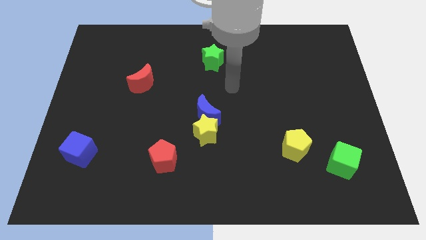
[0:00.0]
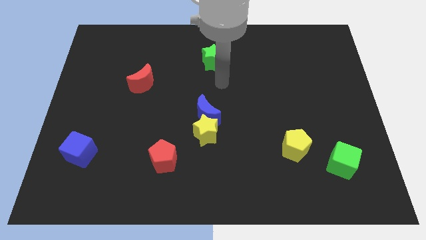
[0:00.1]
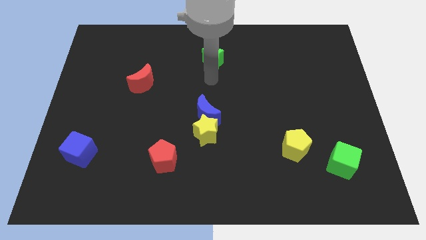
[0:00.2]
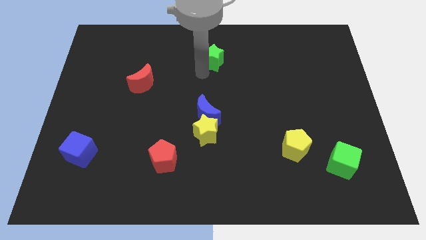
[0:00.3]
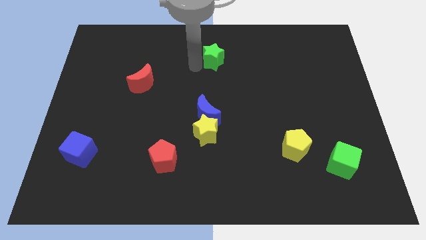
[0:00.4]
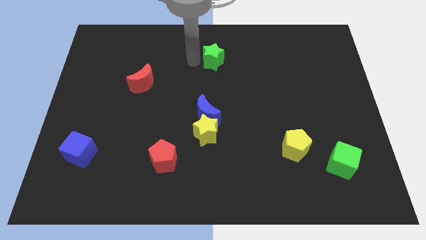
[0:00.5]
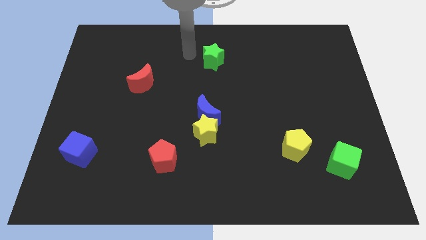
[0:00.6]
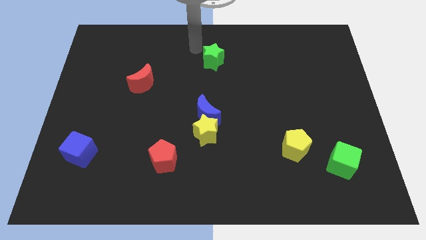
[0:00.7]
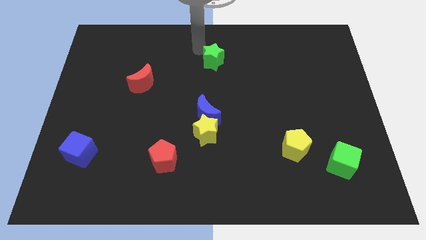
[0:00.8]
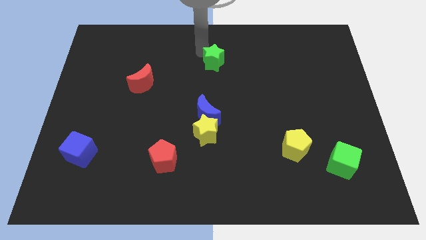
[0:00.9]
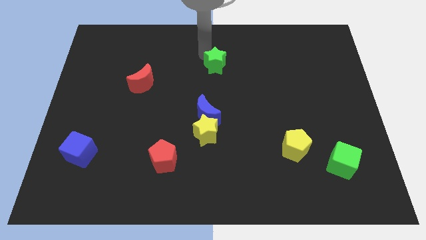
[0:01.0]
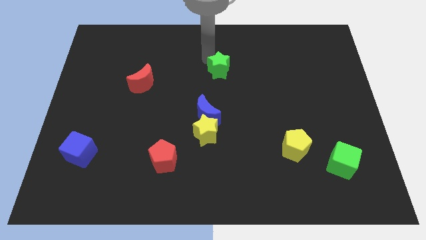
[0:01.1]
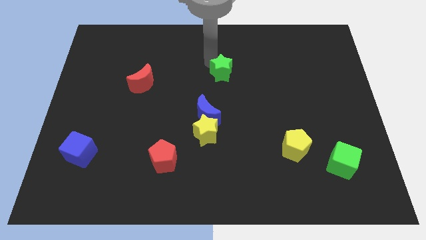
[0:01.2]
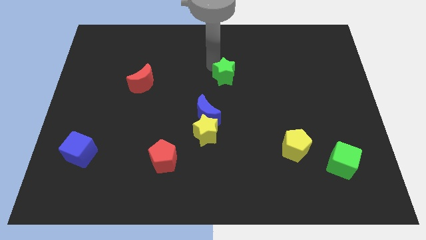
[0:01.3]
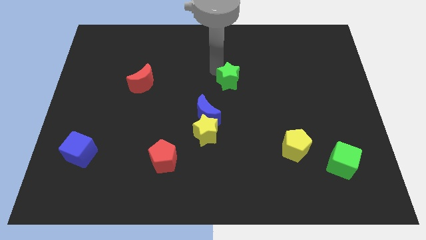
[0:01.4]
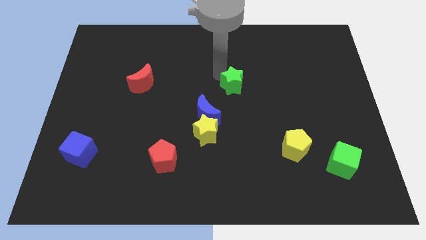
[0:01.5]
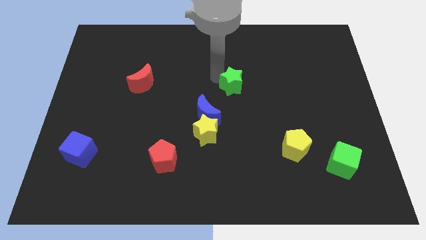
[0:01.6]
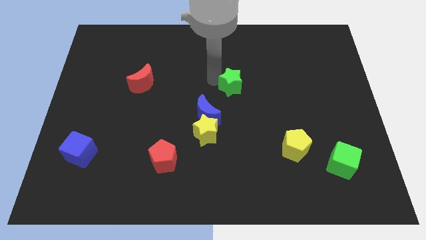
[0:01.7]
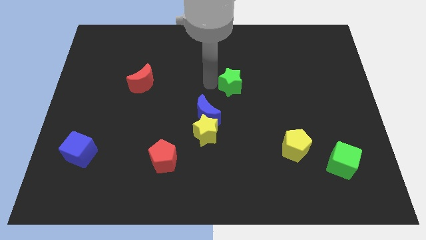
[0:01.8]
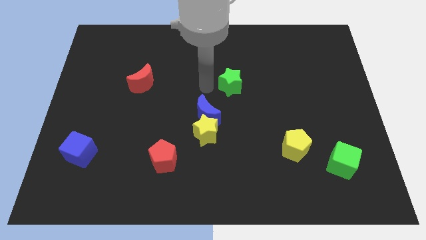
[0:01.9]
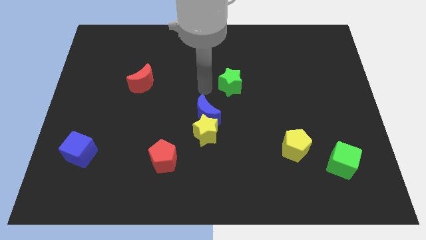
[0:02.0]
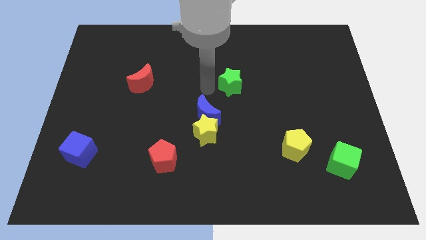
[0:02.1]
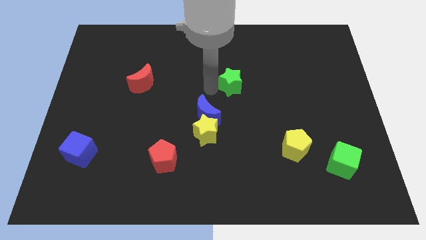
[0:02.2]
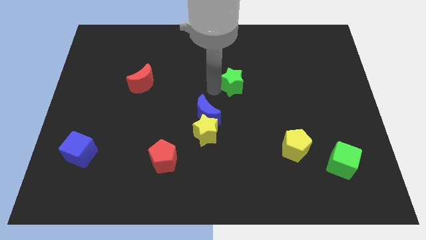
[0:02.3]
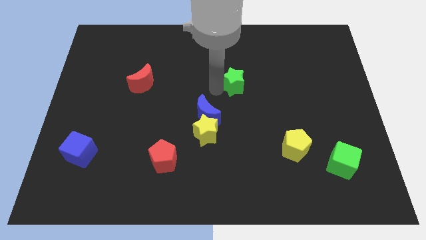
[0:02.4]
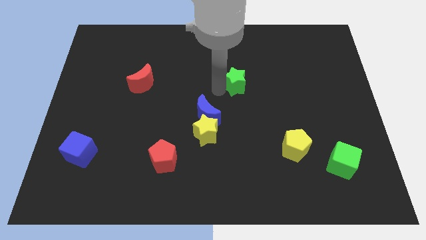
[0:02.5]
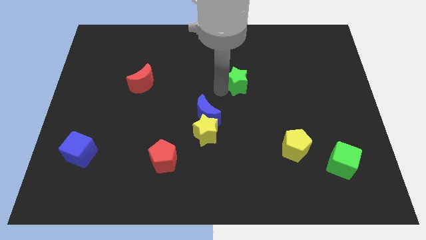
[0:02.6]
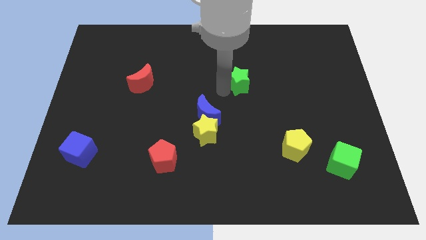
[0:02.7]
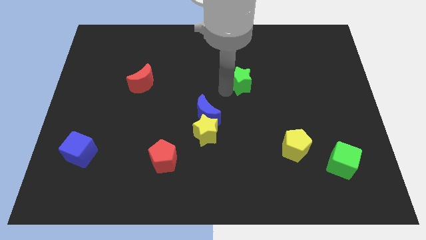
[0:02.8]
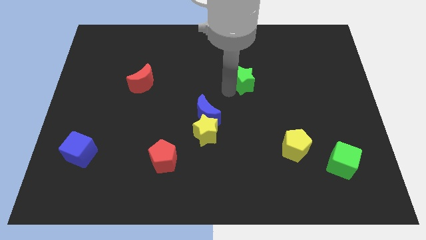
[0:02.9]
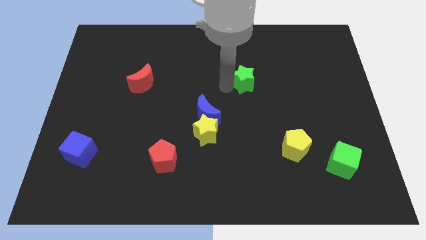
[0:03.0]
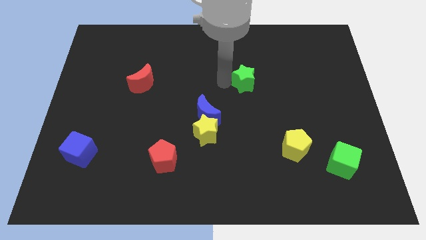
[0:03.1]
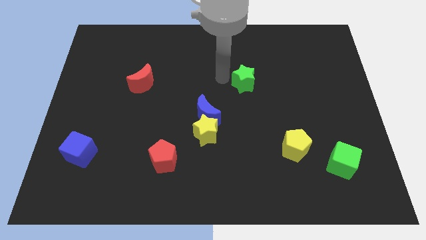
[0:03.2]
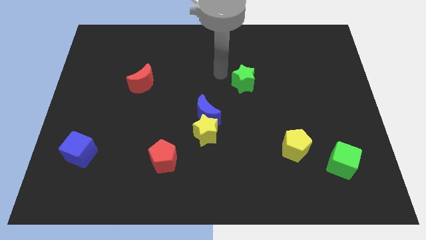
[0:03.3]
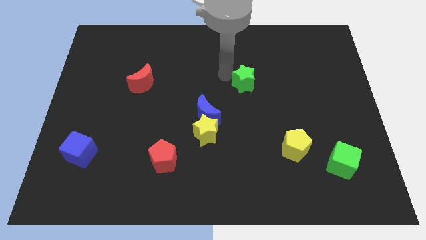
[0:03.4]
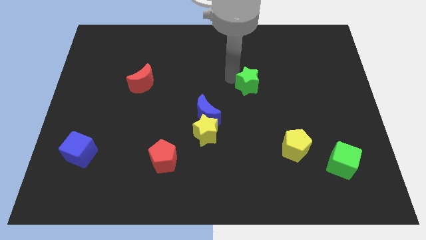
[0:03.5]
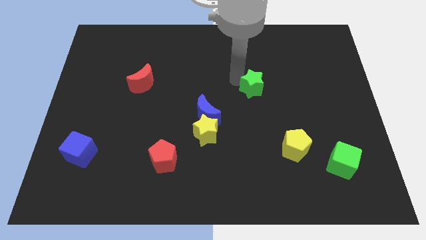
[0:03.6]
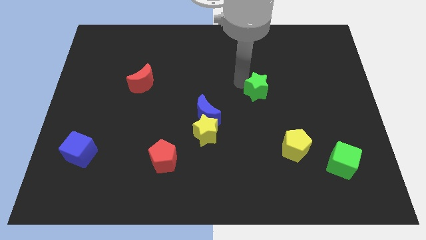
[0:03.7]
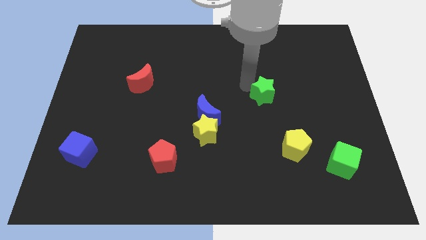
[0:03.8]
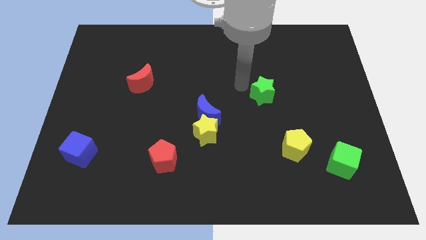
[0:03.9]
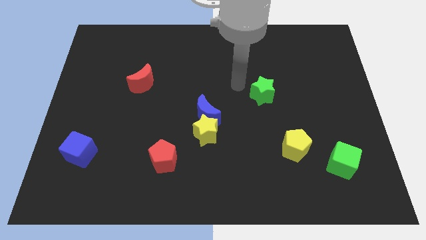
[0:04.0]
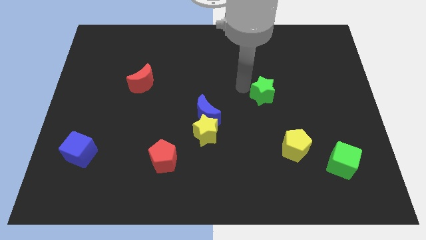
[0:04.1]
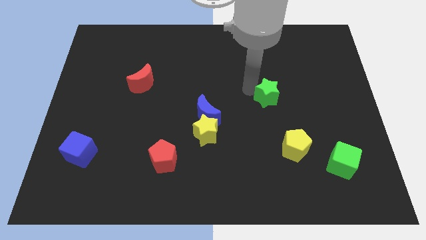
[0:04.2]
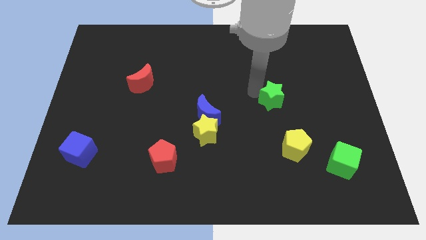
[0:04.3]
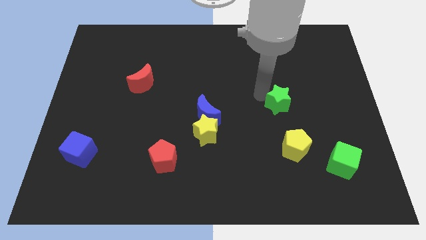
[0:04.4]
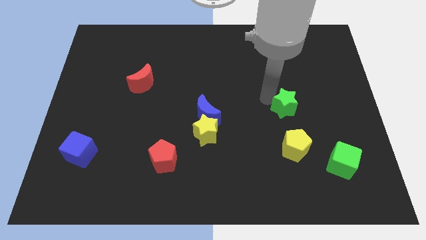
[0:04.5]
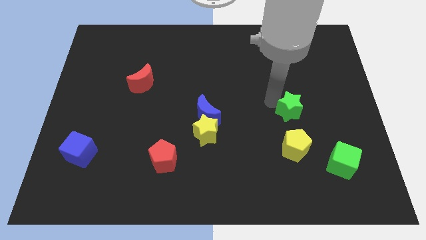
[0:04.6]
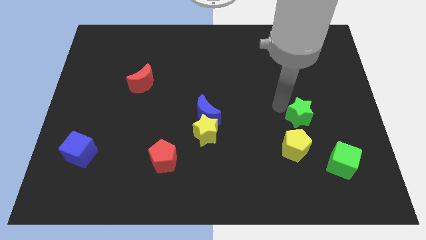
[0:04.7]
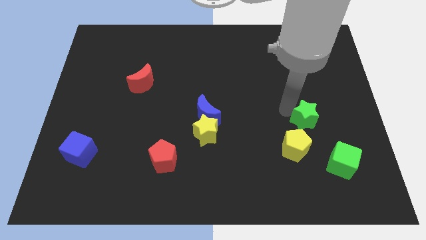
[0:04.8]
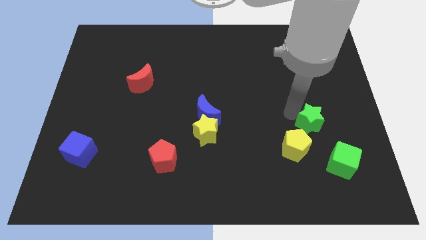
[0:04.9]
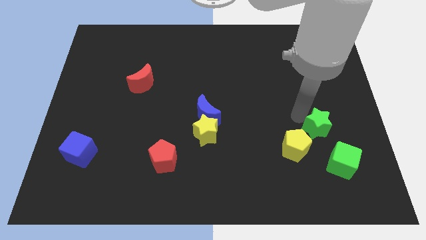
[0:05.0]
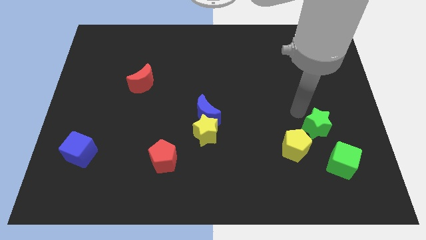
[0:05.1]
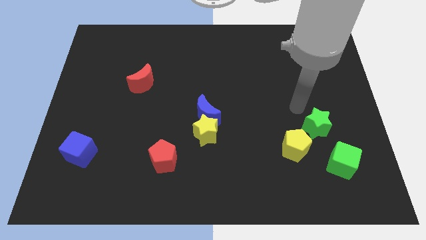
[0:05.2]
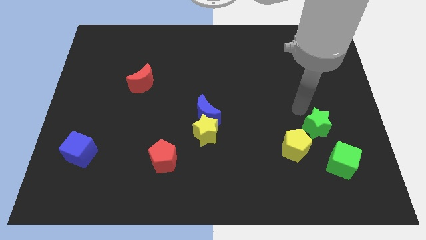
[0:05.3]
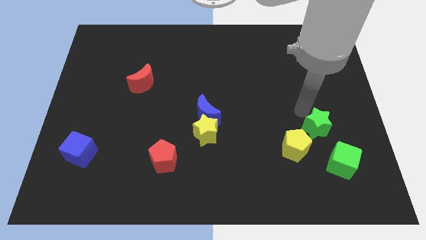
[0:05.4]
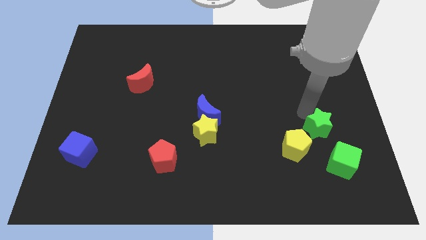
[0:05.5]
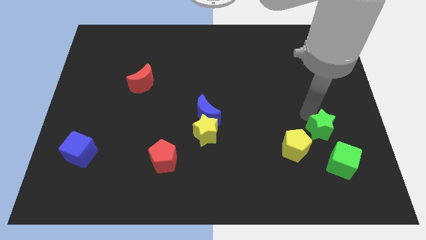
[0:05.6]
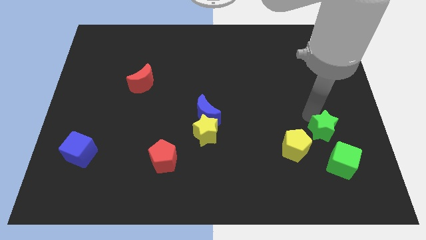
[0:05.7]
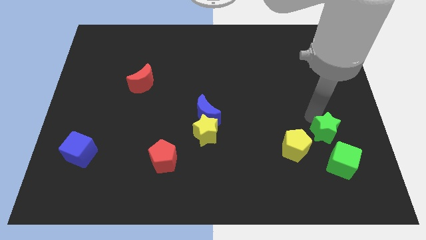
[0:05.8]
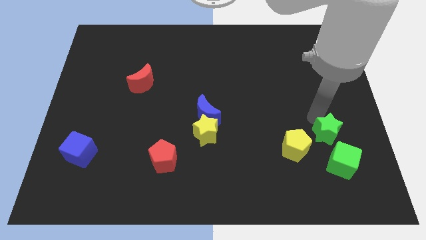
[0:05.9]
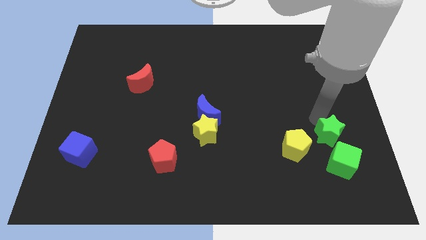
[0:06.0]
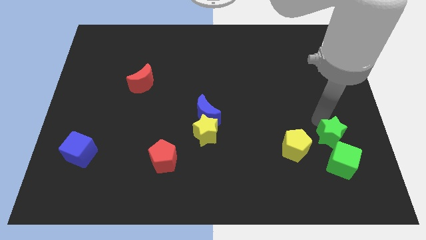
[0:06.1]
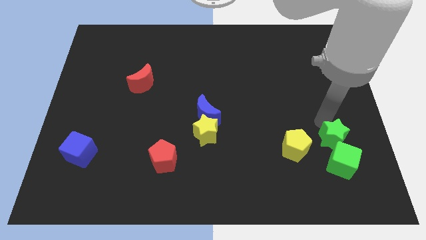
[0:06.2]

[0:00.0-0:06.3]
put the green star to the green cube

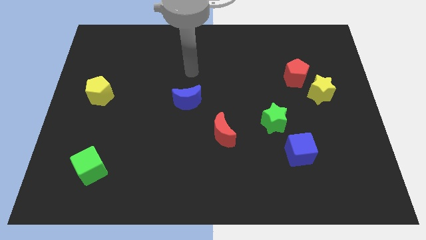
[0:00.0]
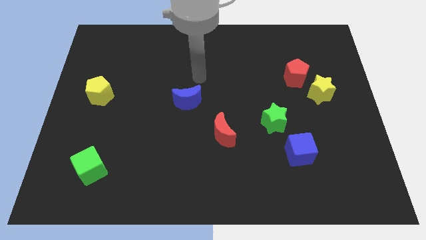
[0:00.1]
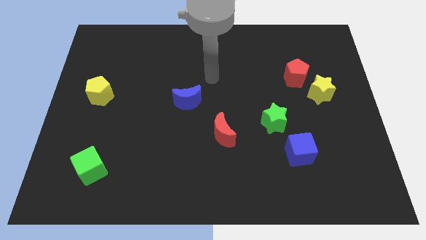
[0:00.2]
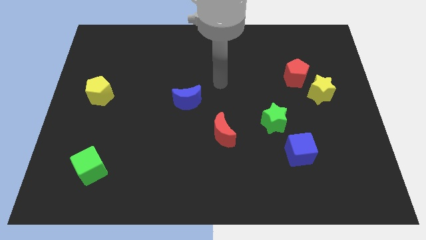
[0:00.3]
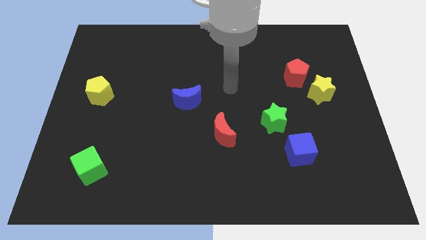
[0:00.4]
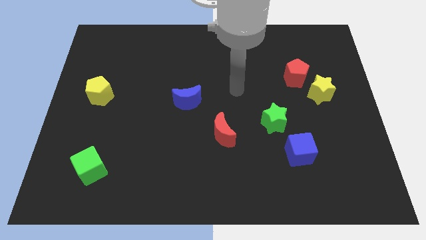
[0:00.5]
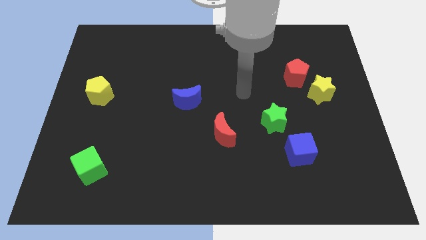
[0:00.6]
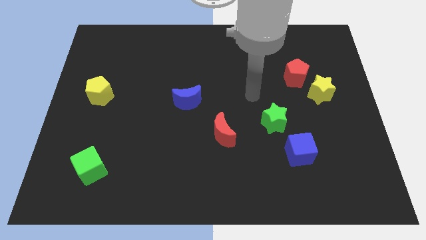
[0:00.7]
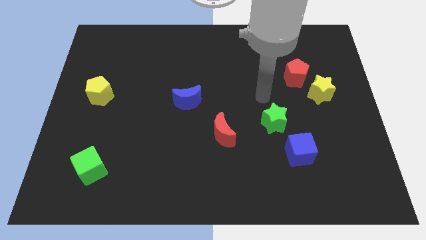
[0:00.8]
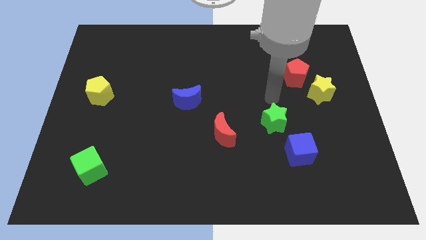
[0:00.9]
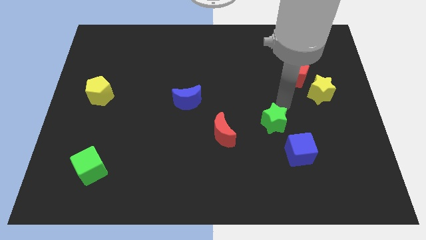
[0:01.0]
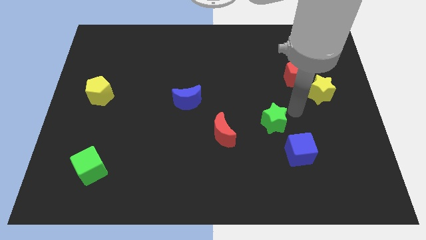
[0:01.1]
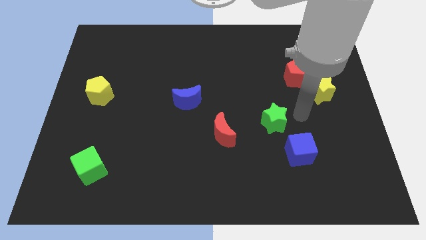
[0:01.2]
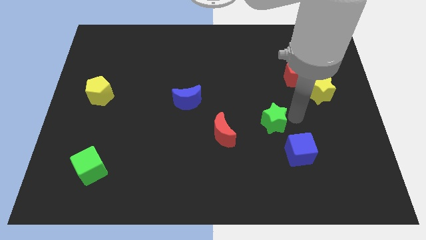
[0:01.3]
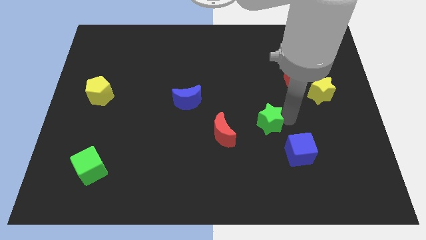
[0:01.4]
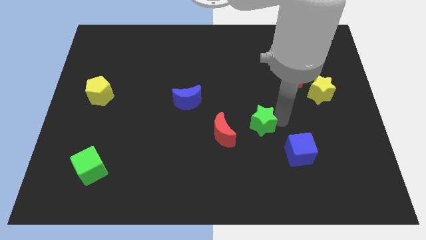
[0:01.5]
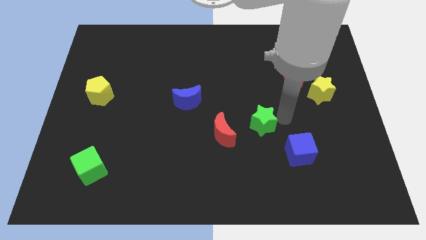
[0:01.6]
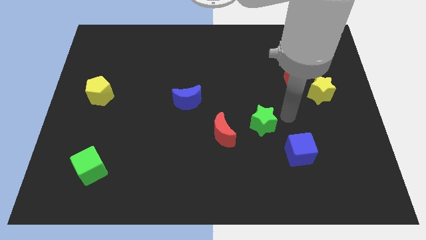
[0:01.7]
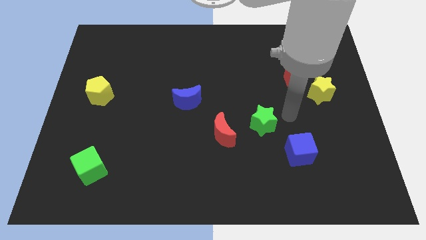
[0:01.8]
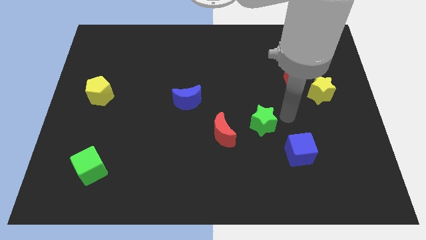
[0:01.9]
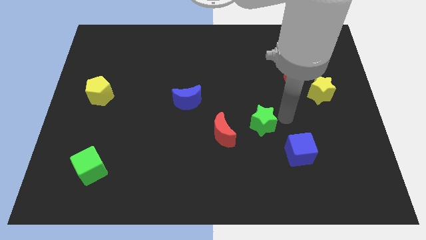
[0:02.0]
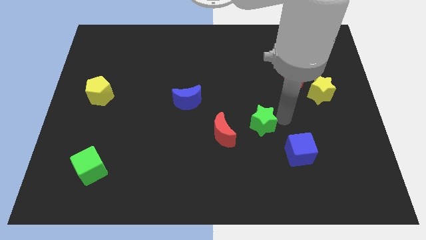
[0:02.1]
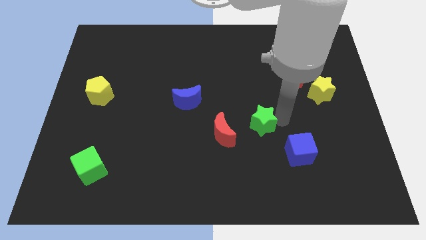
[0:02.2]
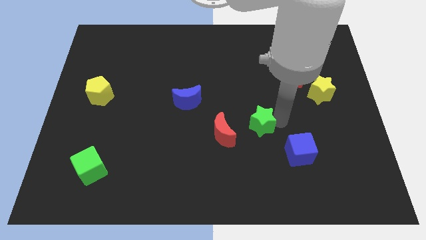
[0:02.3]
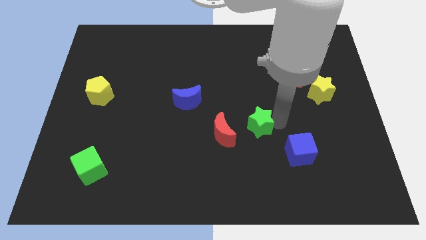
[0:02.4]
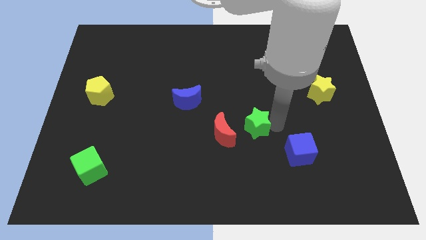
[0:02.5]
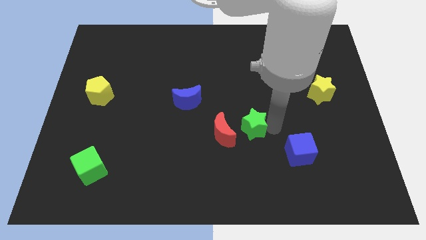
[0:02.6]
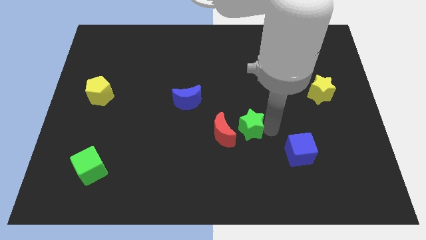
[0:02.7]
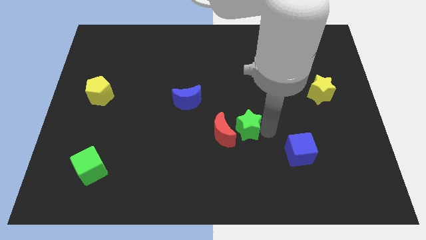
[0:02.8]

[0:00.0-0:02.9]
move the green star to the red moon
